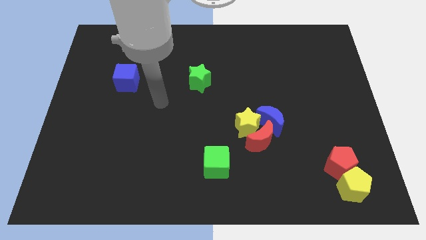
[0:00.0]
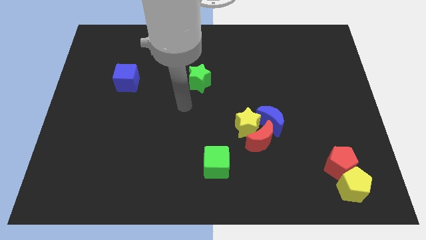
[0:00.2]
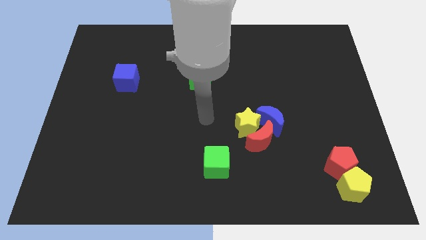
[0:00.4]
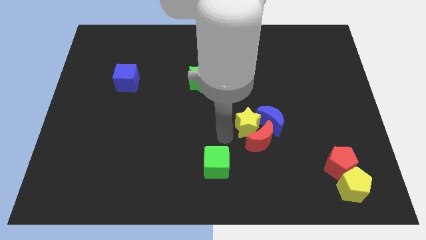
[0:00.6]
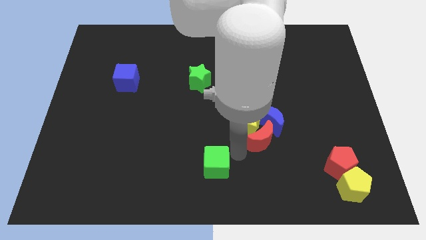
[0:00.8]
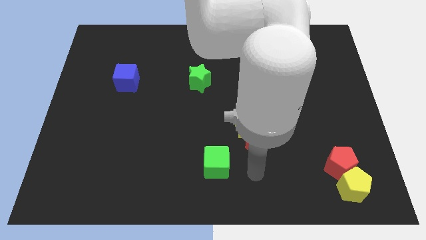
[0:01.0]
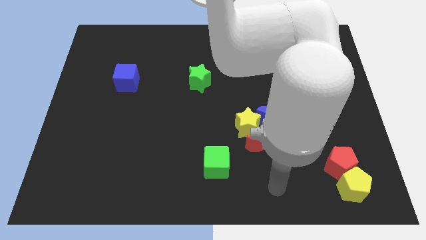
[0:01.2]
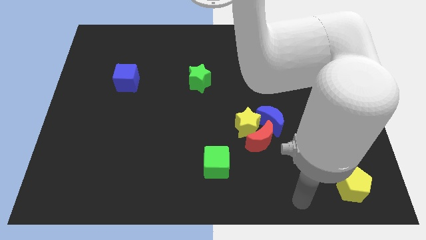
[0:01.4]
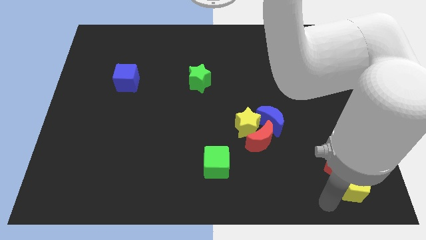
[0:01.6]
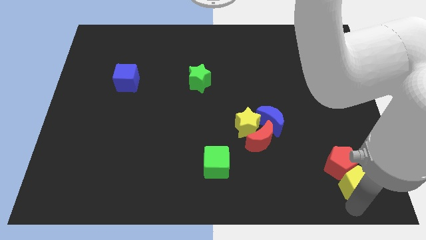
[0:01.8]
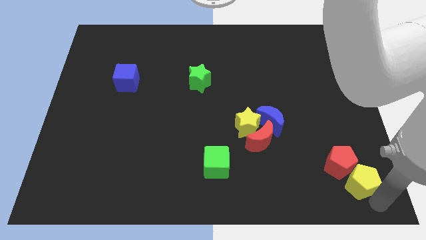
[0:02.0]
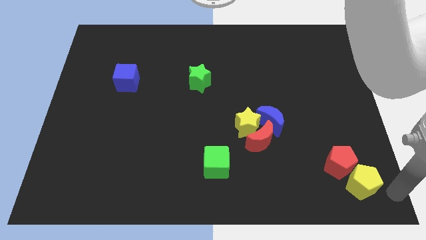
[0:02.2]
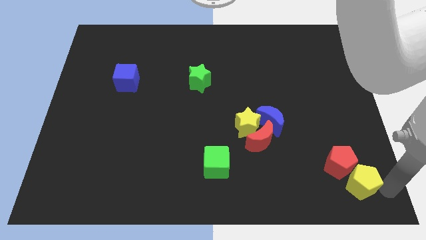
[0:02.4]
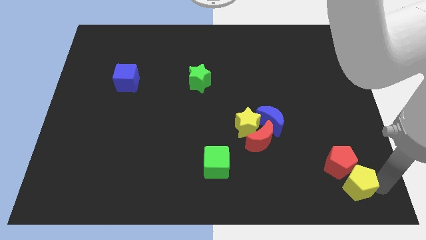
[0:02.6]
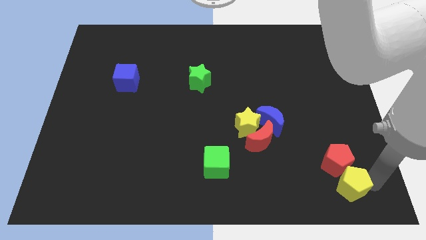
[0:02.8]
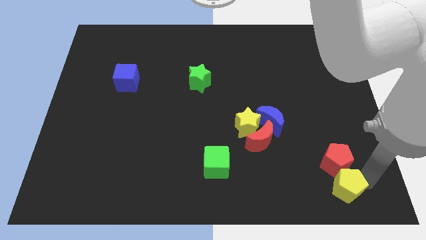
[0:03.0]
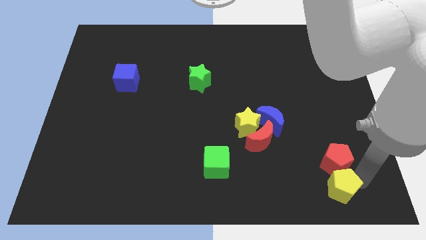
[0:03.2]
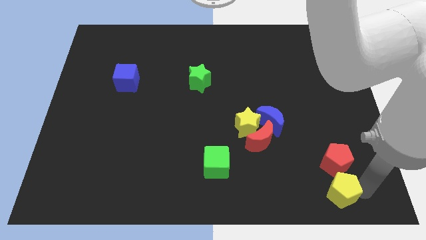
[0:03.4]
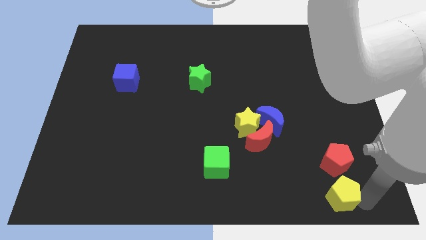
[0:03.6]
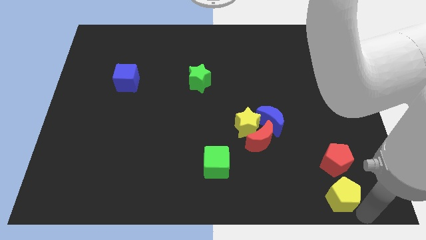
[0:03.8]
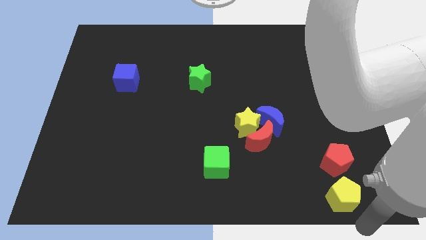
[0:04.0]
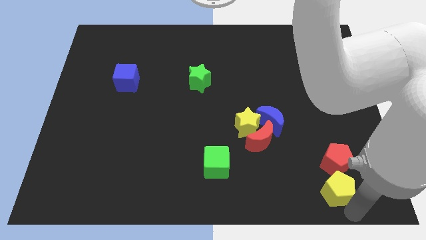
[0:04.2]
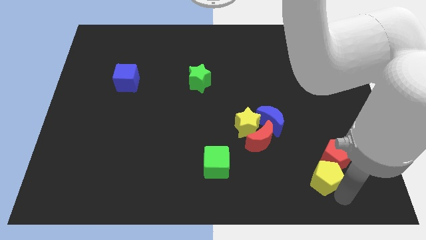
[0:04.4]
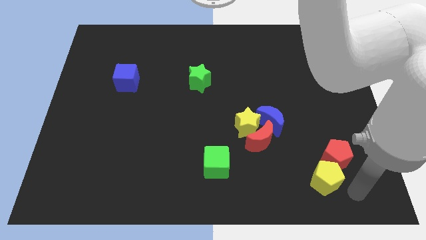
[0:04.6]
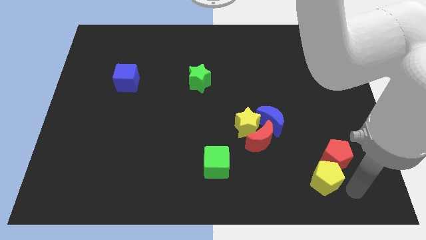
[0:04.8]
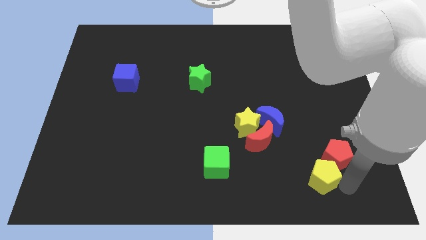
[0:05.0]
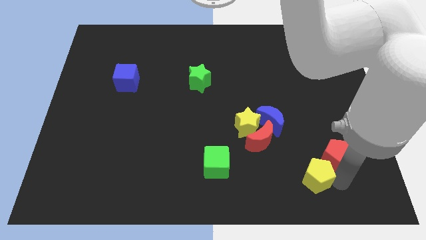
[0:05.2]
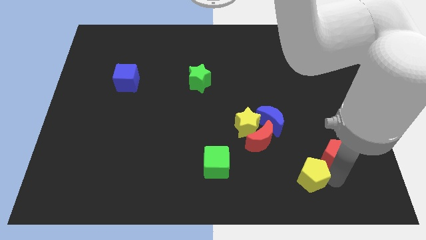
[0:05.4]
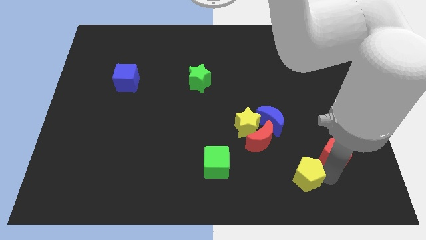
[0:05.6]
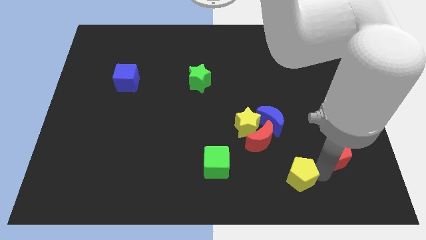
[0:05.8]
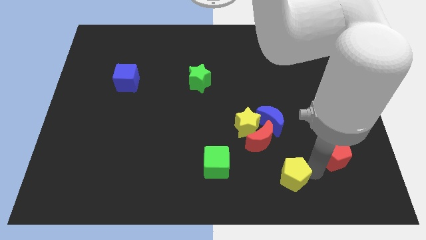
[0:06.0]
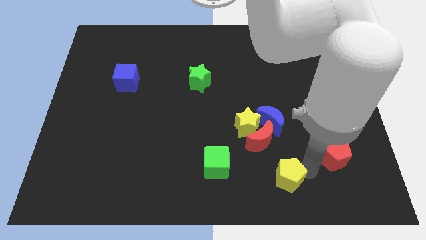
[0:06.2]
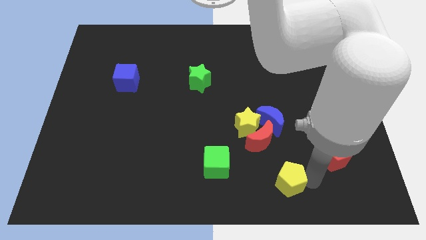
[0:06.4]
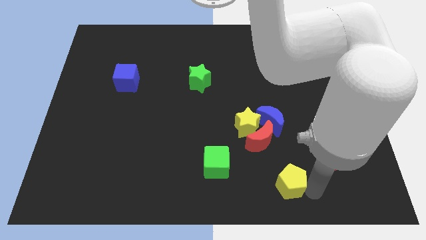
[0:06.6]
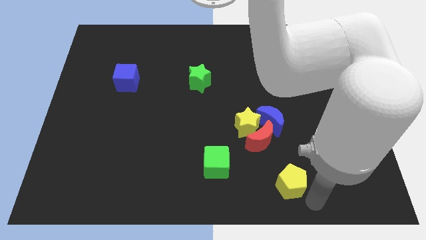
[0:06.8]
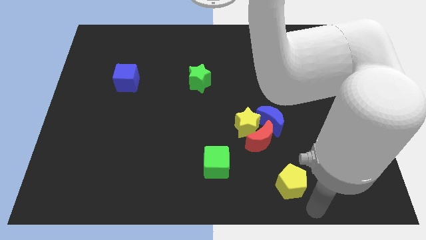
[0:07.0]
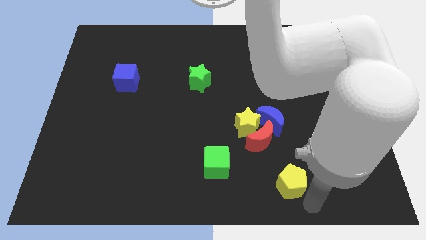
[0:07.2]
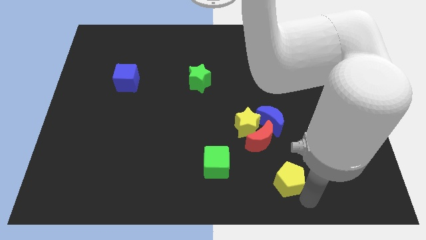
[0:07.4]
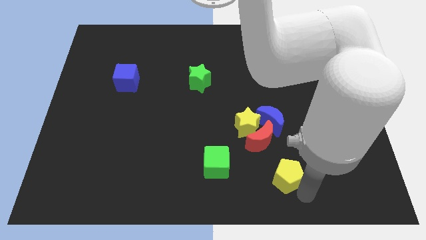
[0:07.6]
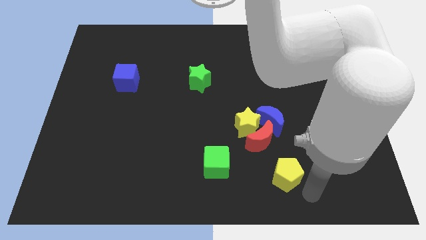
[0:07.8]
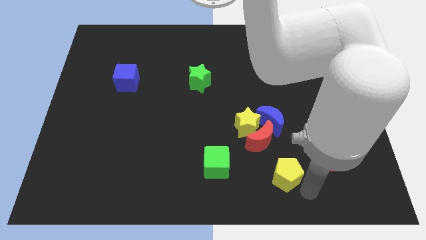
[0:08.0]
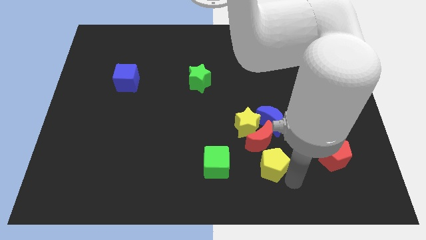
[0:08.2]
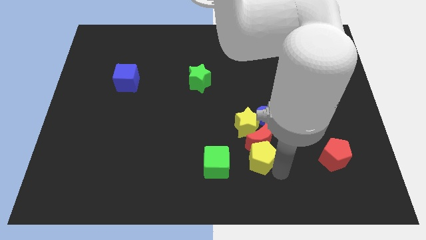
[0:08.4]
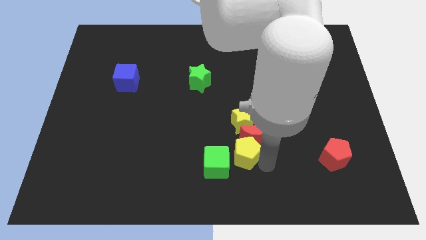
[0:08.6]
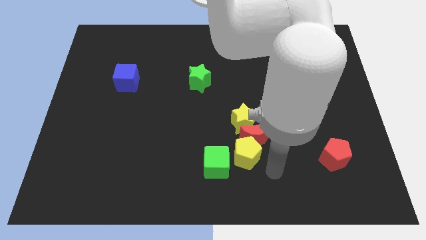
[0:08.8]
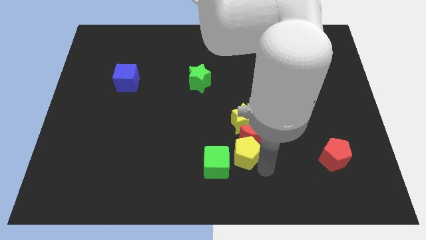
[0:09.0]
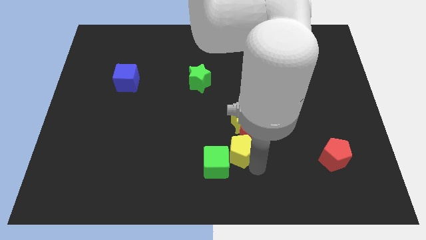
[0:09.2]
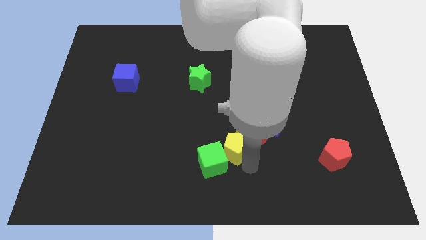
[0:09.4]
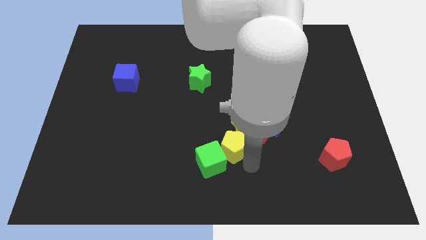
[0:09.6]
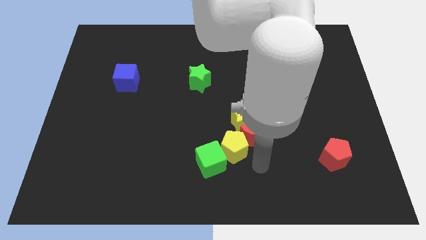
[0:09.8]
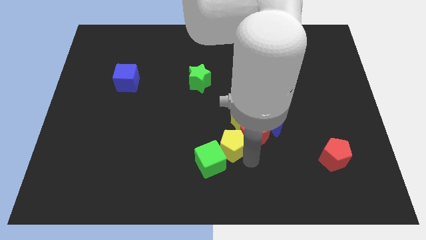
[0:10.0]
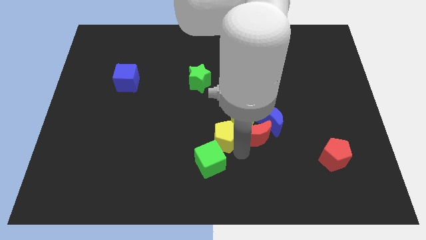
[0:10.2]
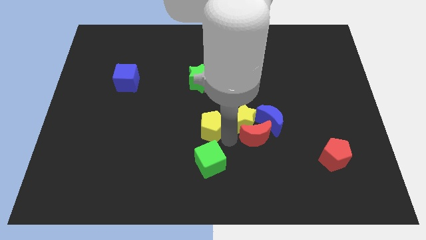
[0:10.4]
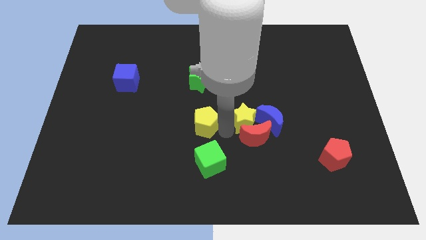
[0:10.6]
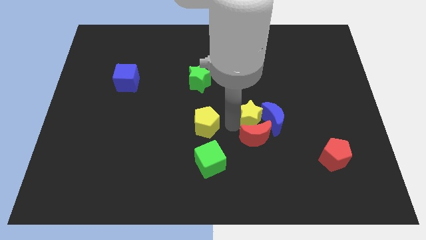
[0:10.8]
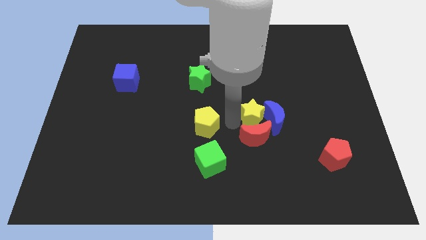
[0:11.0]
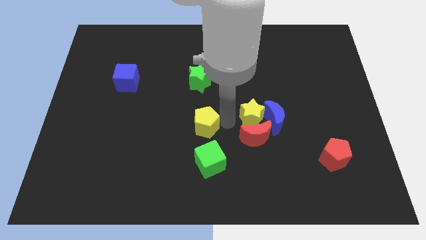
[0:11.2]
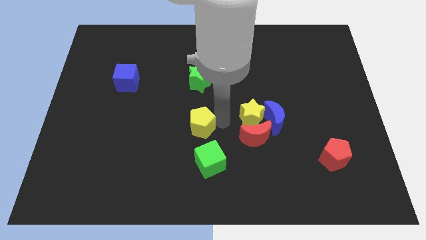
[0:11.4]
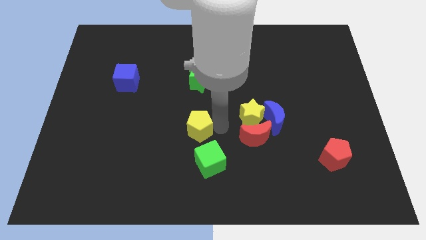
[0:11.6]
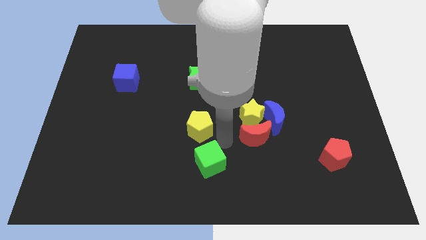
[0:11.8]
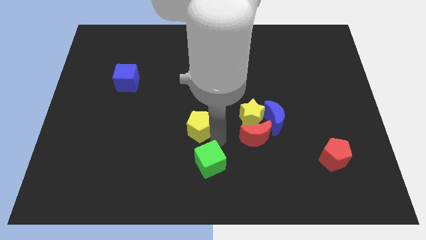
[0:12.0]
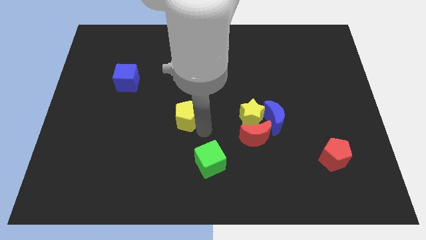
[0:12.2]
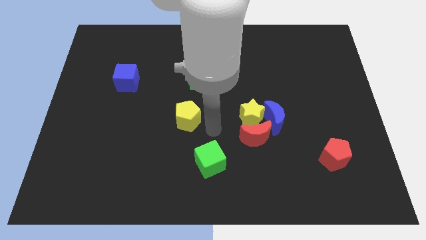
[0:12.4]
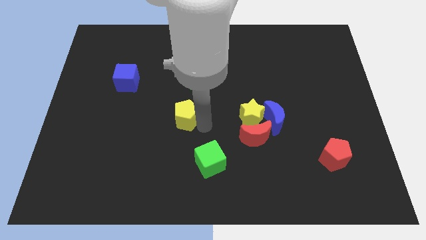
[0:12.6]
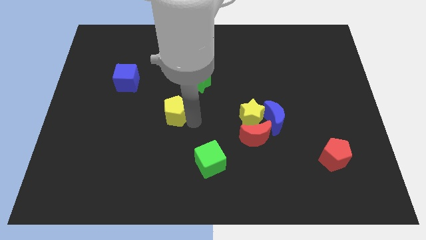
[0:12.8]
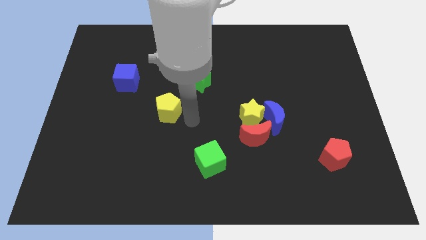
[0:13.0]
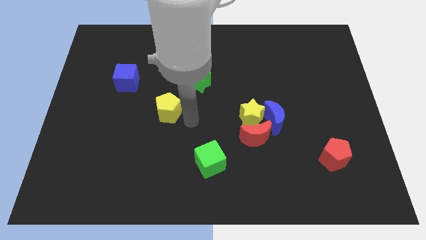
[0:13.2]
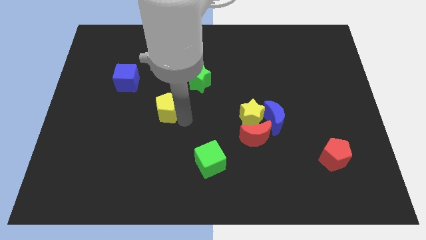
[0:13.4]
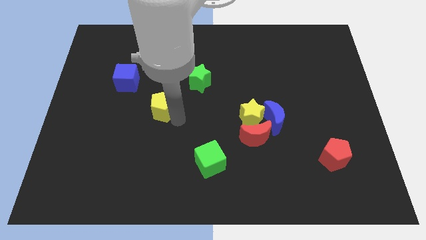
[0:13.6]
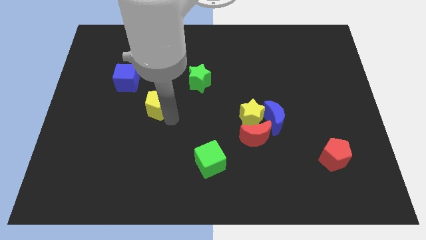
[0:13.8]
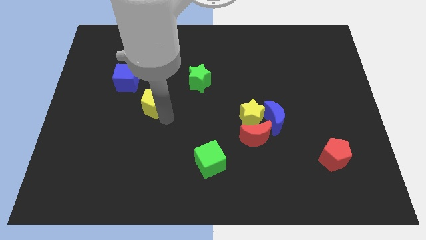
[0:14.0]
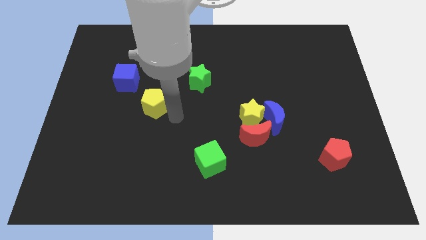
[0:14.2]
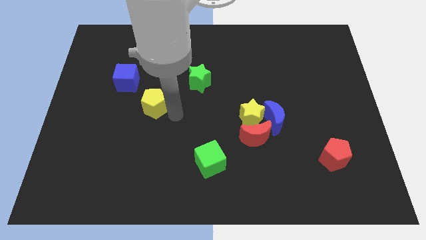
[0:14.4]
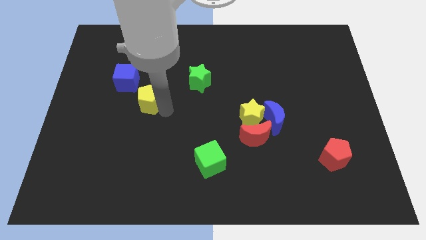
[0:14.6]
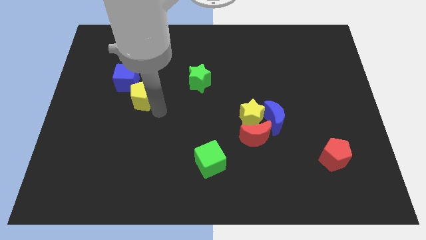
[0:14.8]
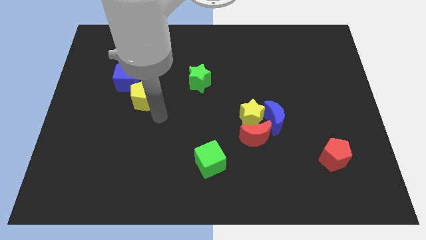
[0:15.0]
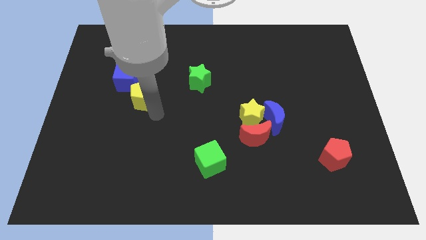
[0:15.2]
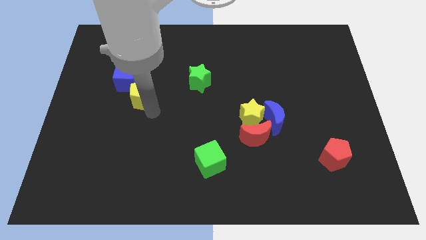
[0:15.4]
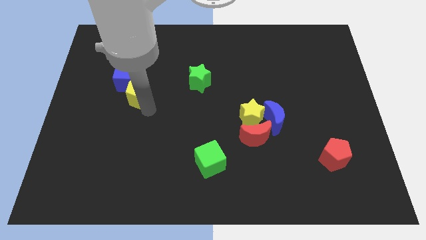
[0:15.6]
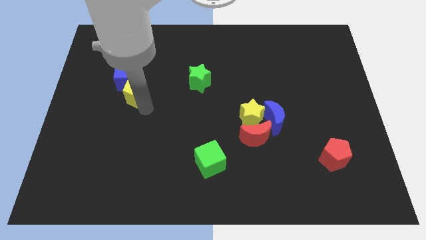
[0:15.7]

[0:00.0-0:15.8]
slide the yellow pentagon to the blue cube
